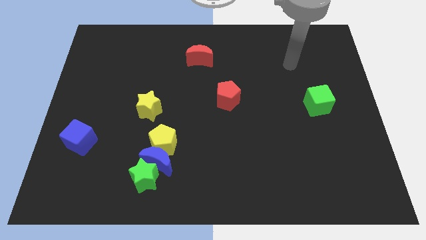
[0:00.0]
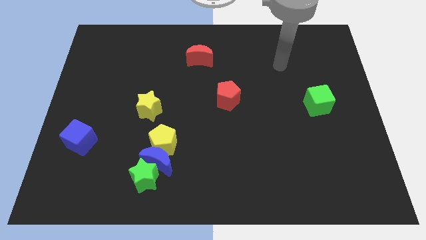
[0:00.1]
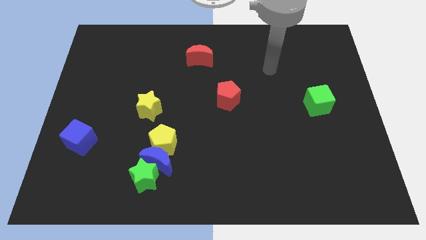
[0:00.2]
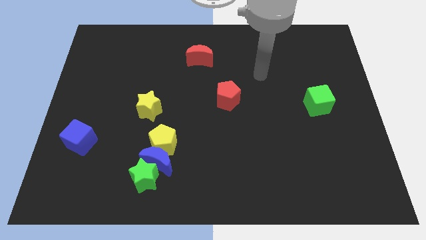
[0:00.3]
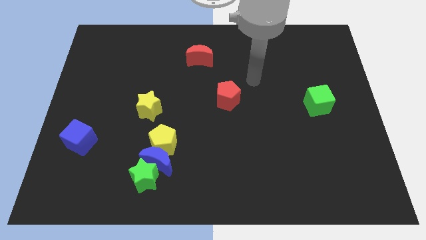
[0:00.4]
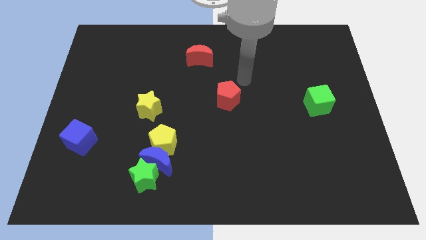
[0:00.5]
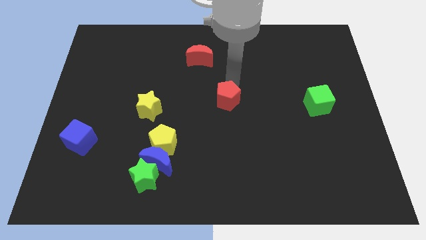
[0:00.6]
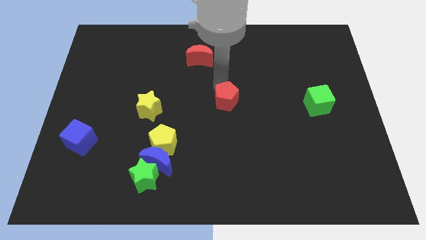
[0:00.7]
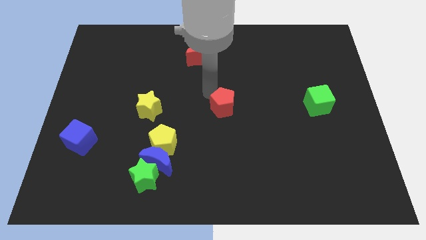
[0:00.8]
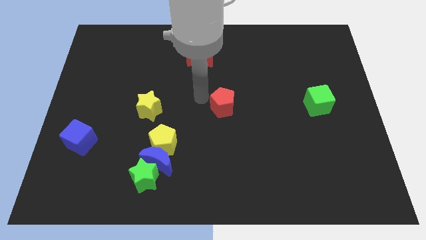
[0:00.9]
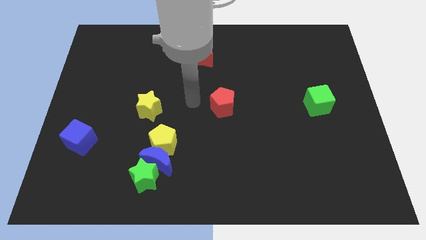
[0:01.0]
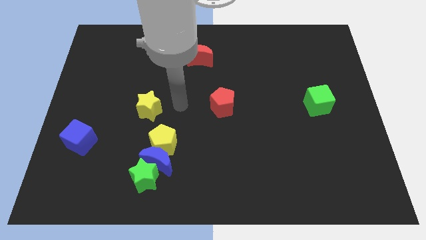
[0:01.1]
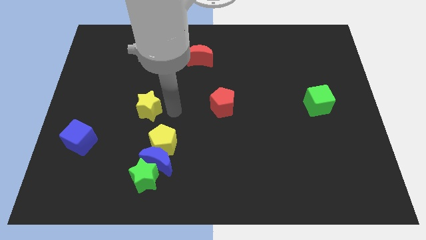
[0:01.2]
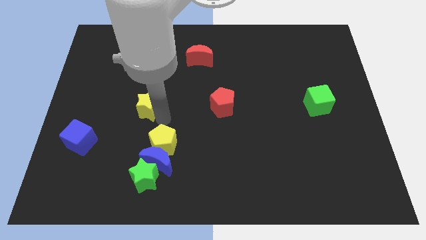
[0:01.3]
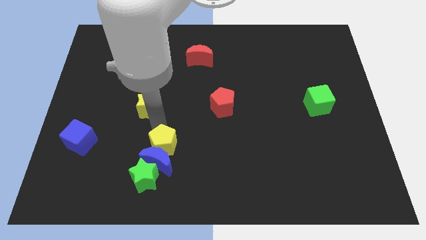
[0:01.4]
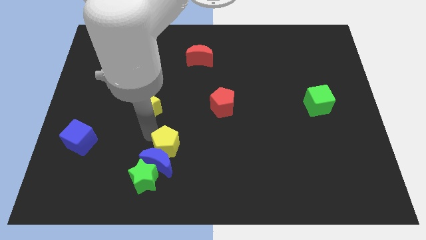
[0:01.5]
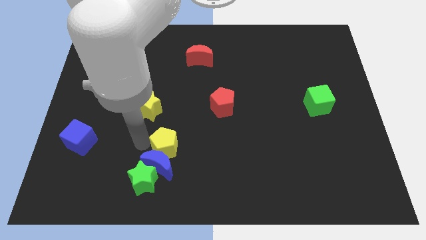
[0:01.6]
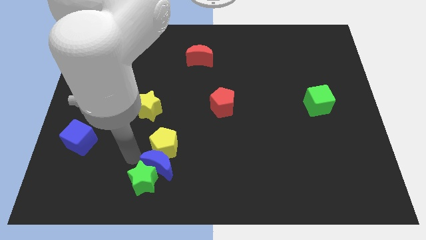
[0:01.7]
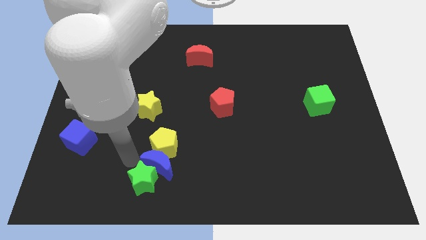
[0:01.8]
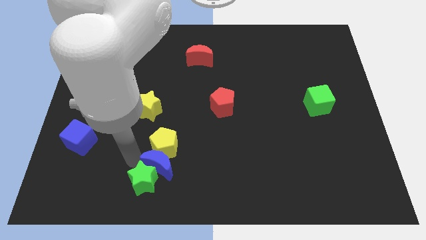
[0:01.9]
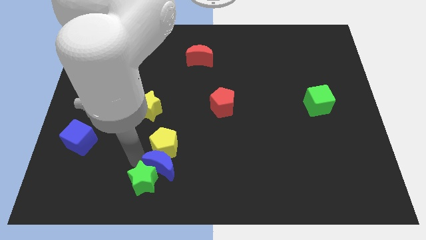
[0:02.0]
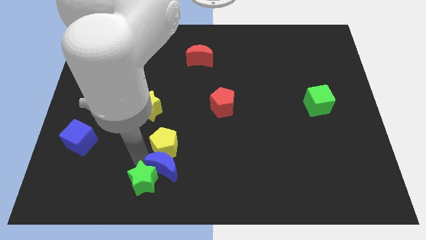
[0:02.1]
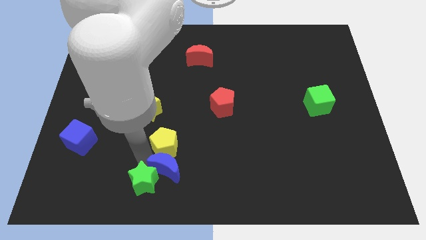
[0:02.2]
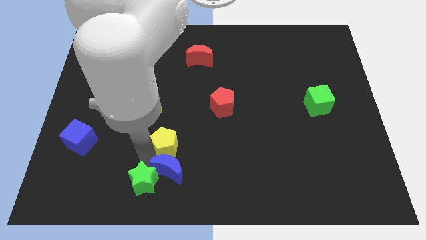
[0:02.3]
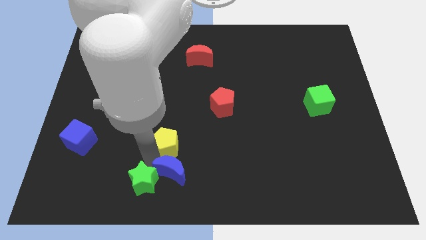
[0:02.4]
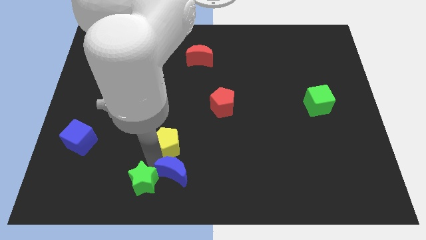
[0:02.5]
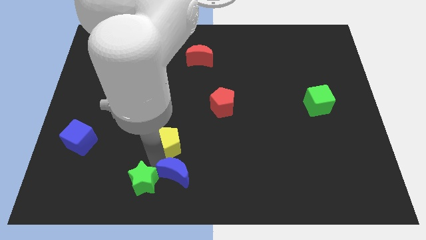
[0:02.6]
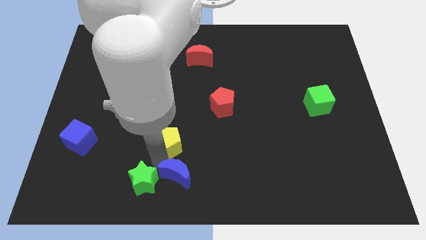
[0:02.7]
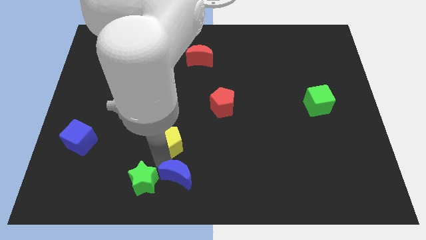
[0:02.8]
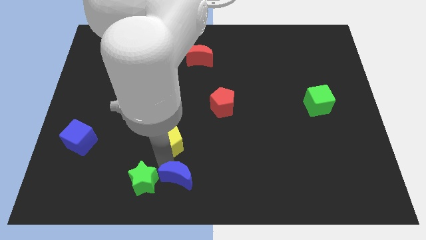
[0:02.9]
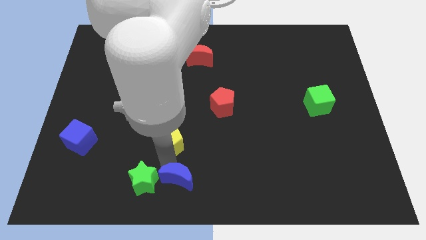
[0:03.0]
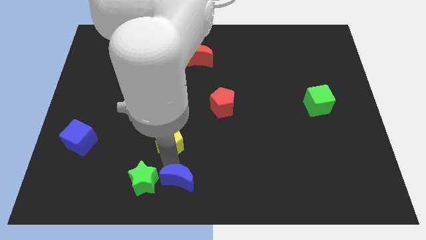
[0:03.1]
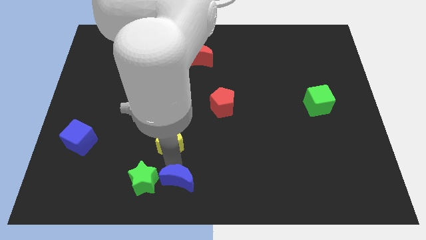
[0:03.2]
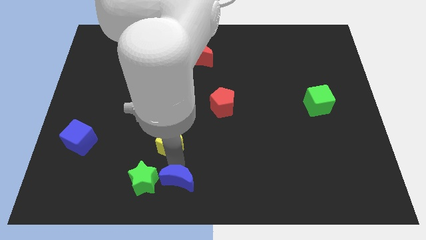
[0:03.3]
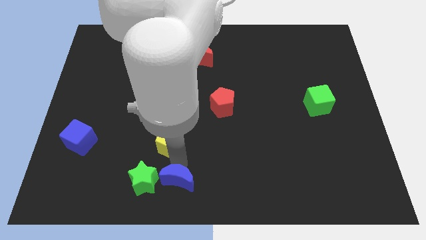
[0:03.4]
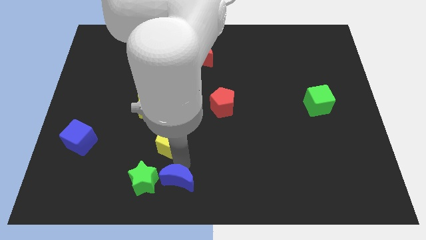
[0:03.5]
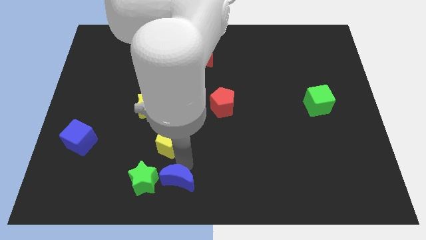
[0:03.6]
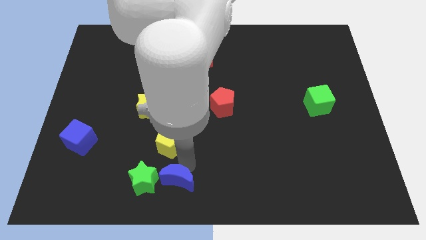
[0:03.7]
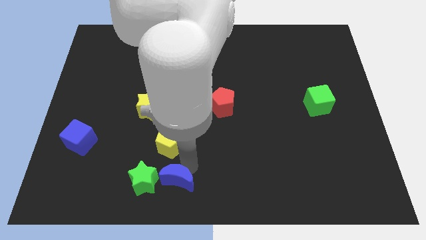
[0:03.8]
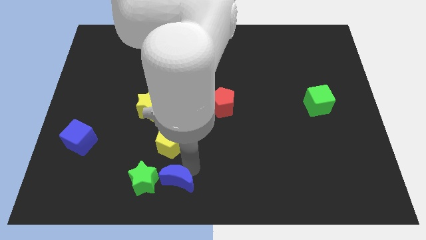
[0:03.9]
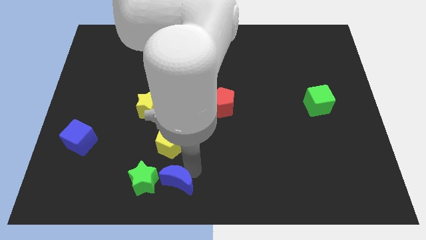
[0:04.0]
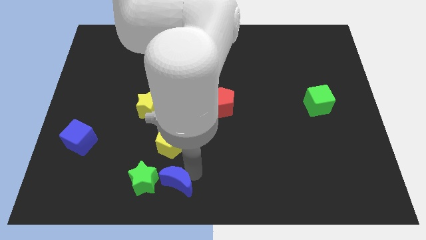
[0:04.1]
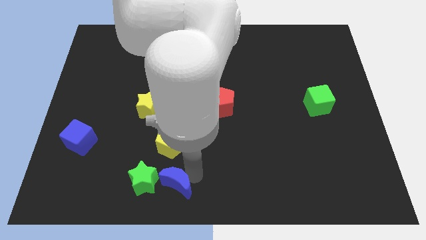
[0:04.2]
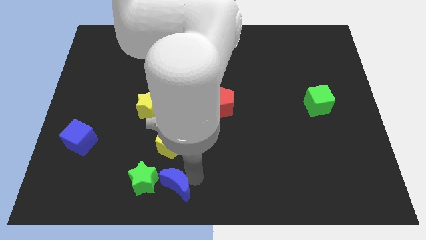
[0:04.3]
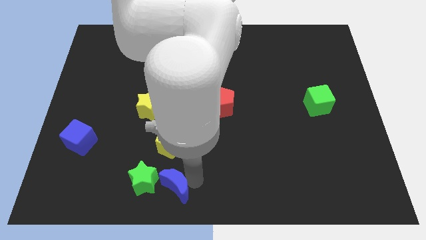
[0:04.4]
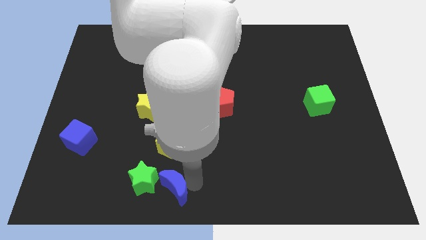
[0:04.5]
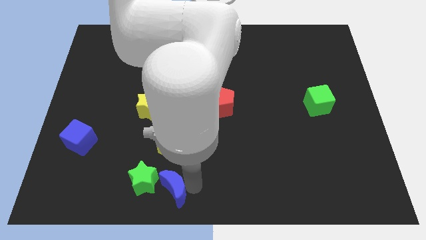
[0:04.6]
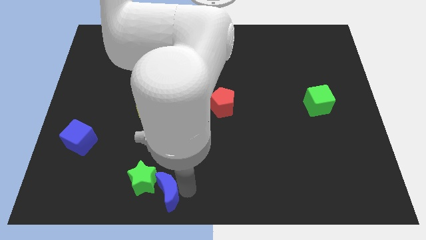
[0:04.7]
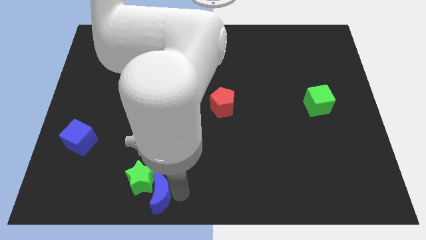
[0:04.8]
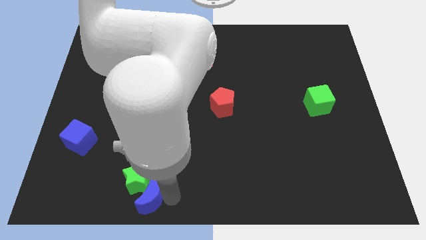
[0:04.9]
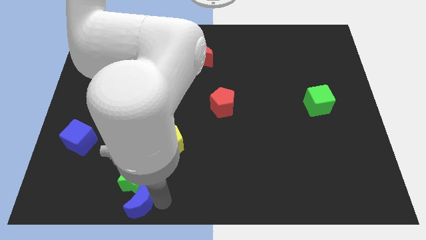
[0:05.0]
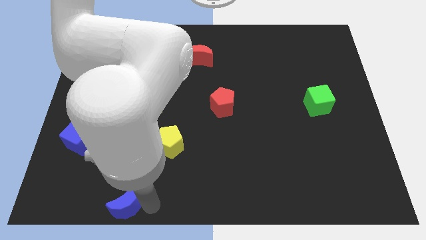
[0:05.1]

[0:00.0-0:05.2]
pull the blue moon apart from the yellow pentagon and green star

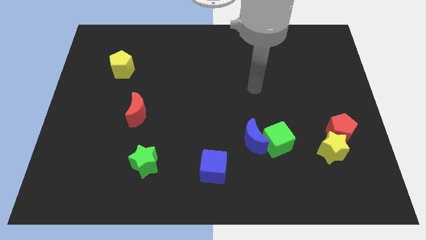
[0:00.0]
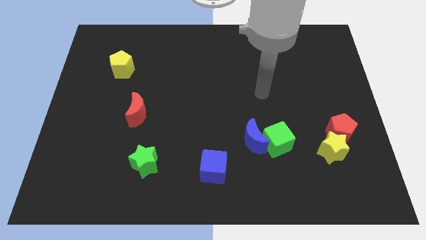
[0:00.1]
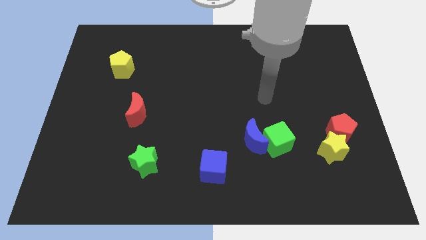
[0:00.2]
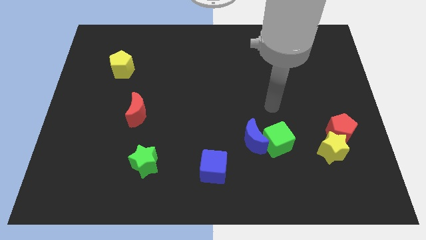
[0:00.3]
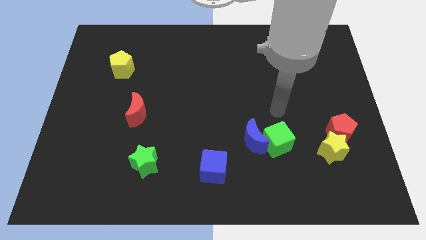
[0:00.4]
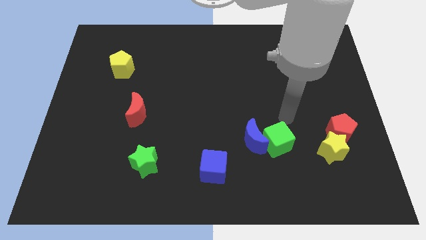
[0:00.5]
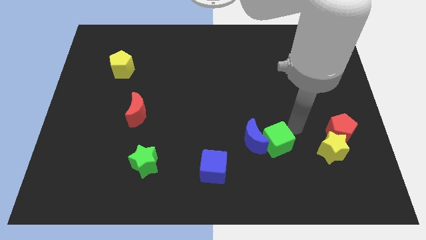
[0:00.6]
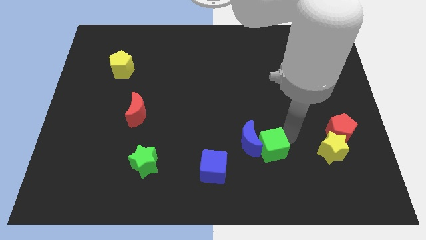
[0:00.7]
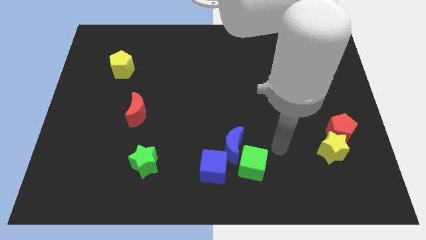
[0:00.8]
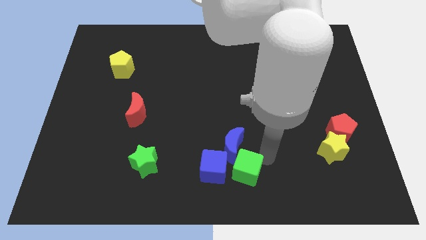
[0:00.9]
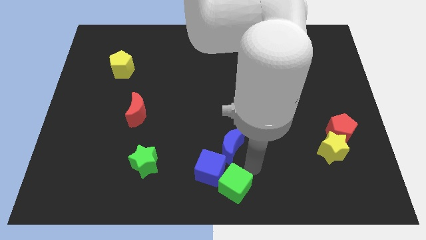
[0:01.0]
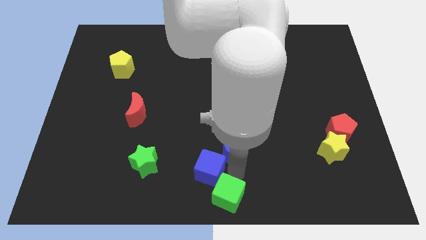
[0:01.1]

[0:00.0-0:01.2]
pull the blue moon apart from the green cube

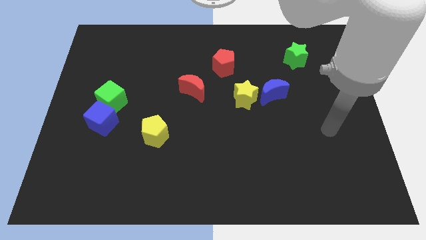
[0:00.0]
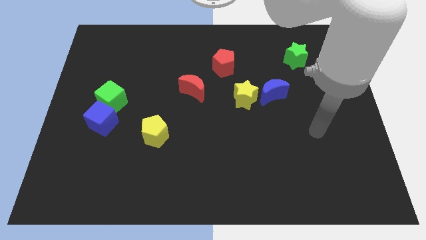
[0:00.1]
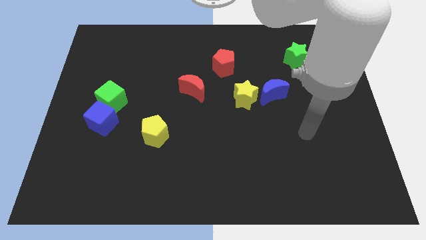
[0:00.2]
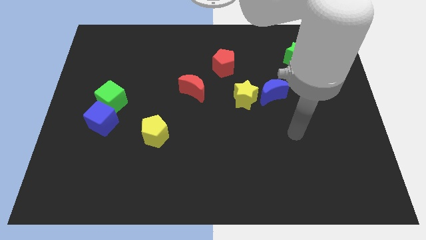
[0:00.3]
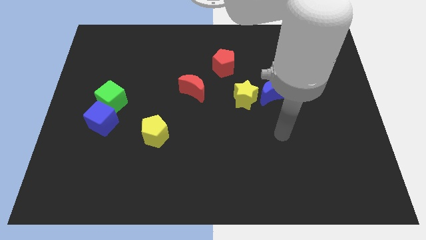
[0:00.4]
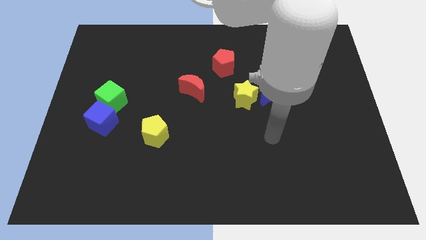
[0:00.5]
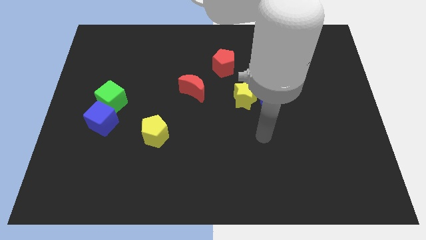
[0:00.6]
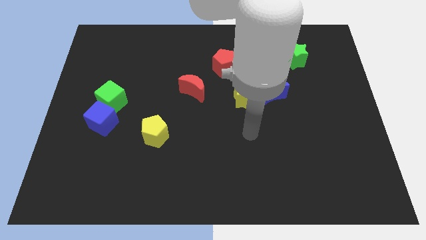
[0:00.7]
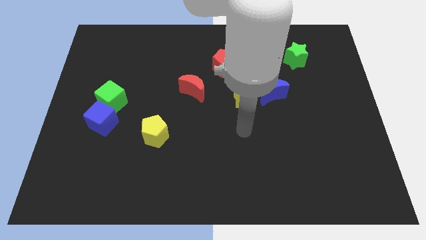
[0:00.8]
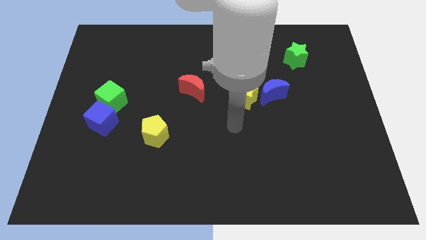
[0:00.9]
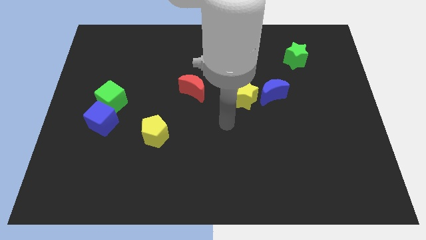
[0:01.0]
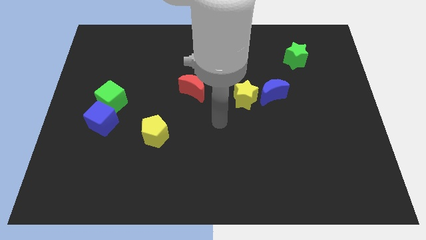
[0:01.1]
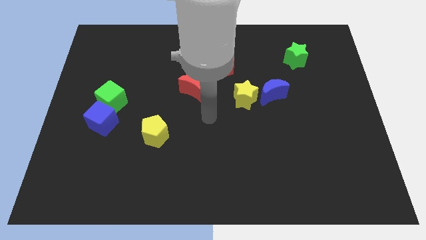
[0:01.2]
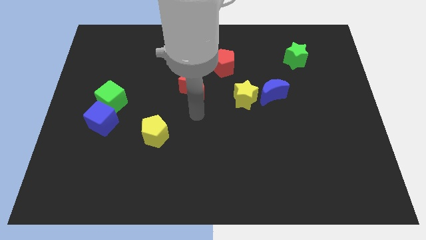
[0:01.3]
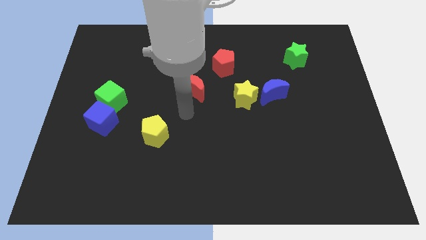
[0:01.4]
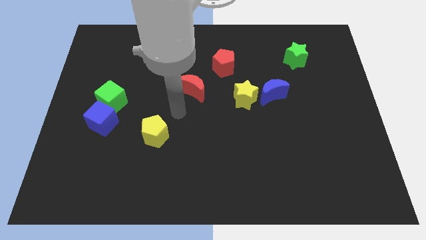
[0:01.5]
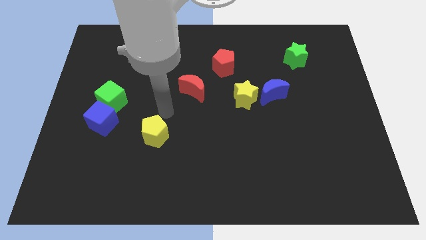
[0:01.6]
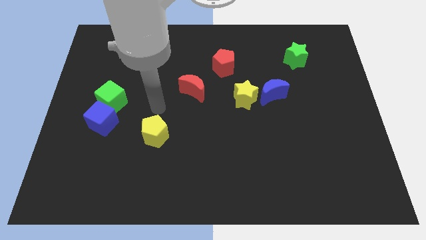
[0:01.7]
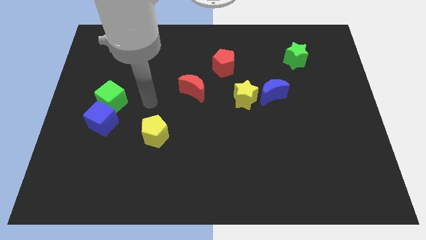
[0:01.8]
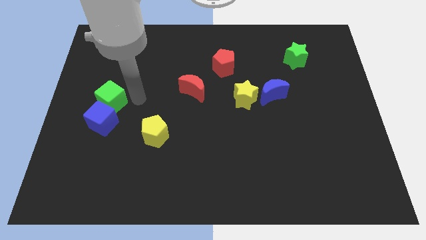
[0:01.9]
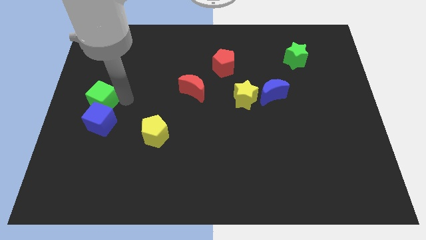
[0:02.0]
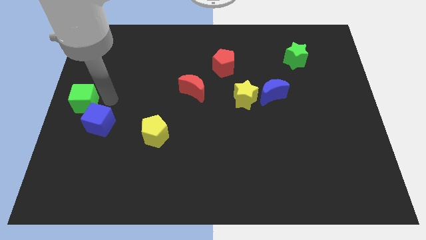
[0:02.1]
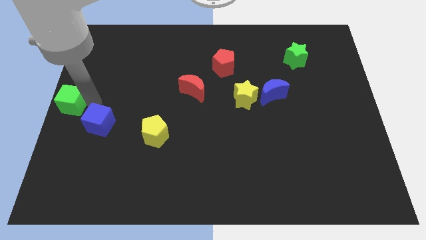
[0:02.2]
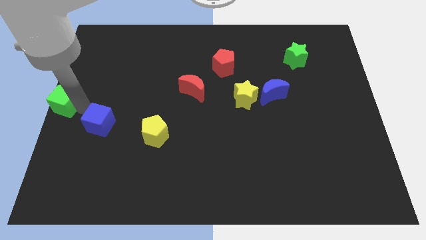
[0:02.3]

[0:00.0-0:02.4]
separate the blue cube from the green cube

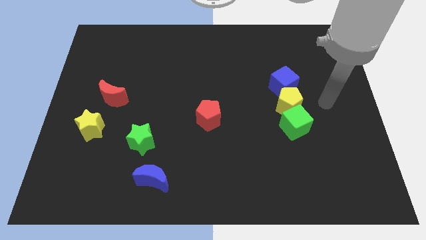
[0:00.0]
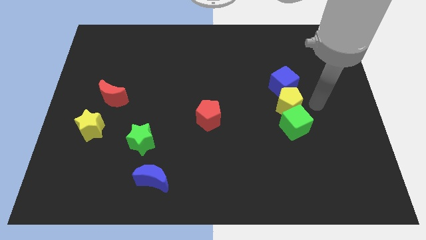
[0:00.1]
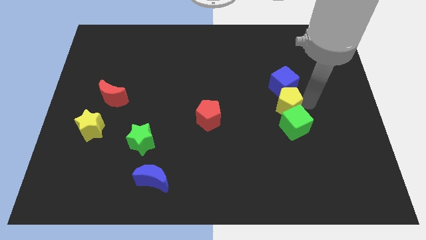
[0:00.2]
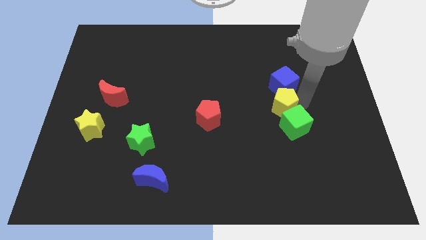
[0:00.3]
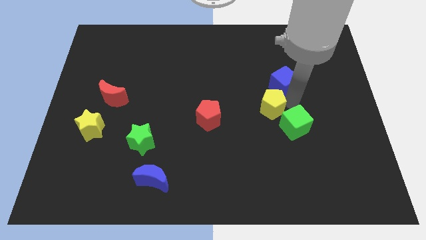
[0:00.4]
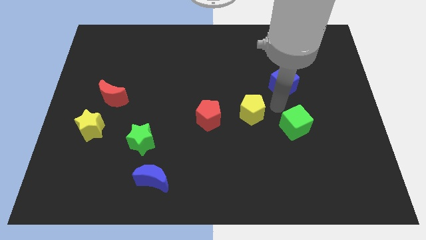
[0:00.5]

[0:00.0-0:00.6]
separate the green cube from the yellow pentagon
